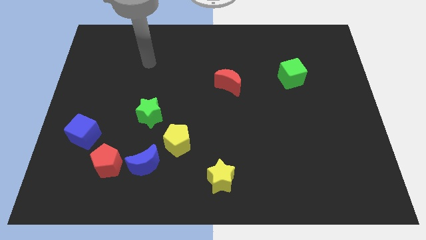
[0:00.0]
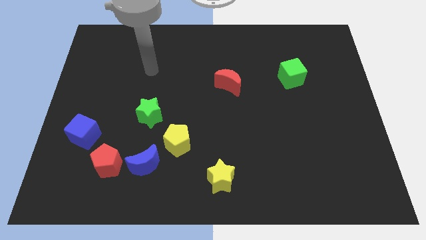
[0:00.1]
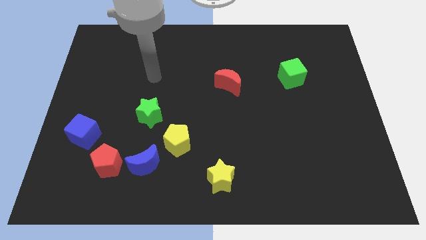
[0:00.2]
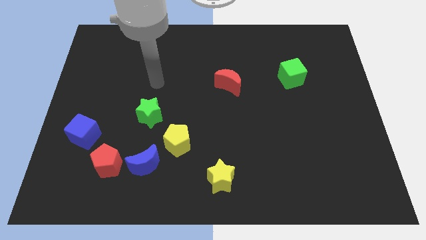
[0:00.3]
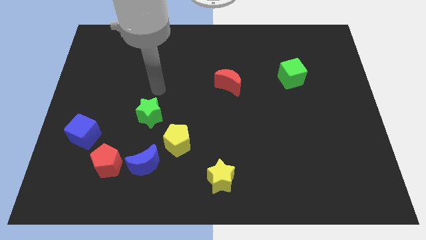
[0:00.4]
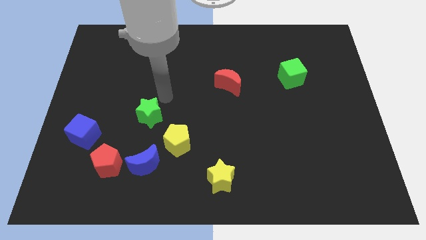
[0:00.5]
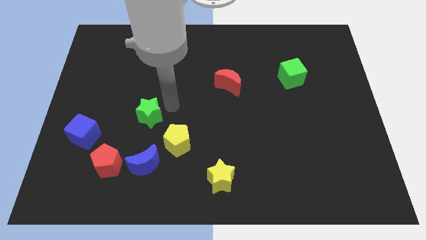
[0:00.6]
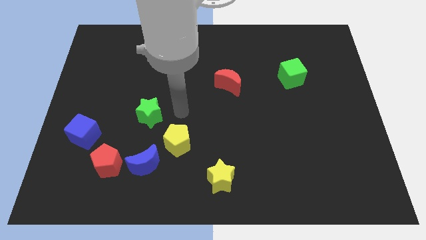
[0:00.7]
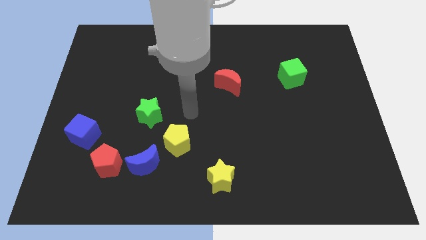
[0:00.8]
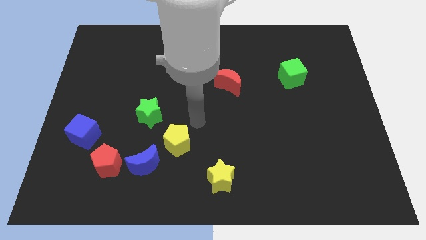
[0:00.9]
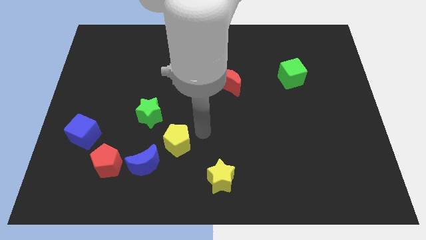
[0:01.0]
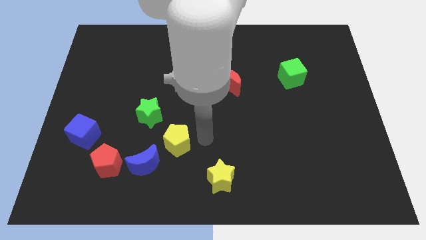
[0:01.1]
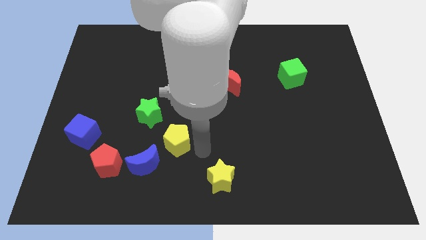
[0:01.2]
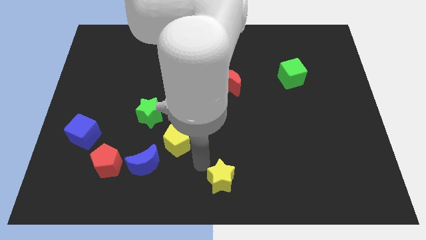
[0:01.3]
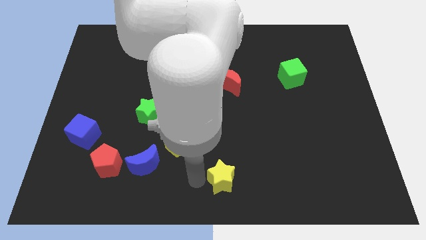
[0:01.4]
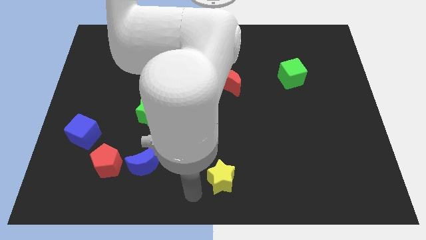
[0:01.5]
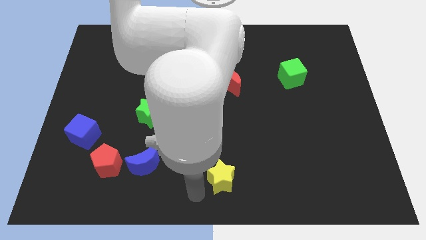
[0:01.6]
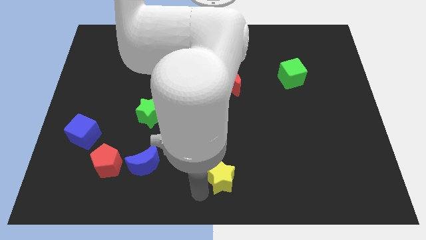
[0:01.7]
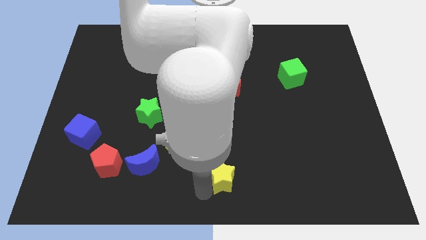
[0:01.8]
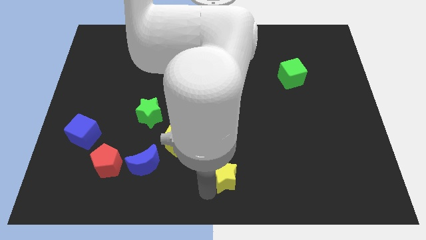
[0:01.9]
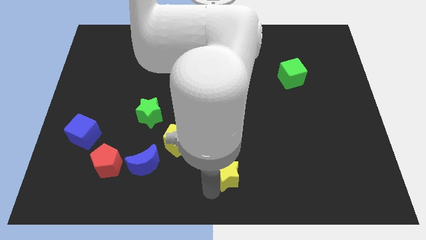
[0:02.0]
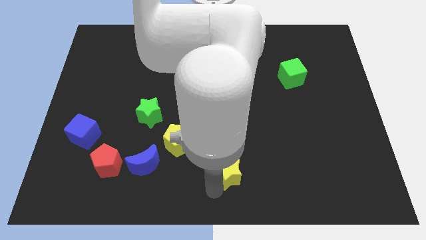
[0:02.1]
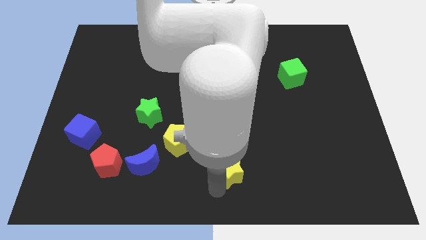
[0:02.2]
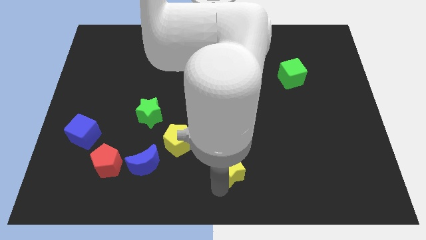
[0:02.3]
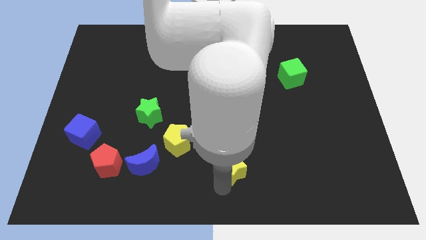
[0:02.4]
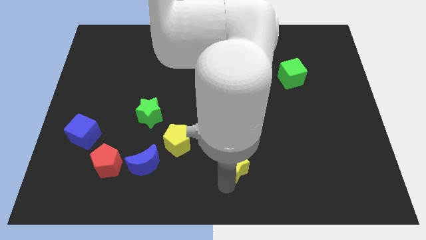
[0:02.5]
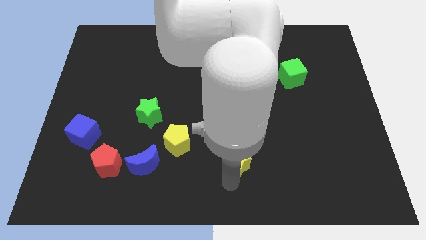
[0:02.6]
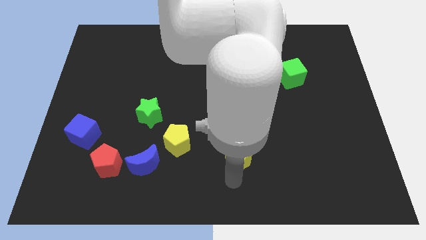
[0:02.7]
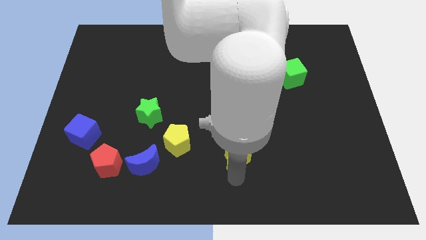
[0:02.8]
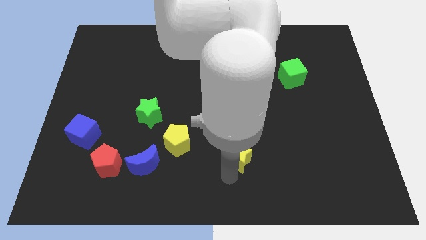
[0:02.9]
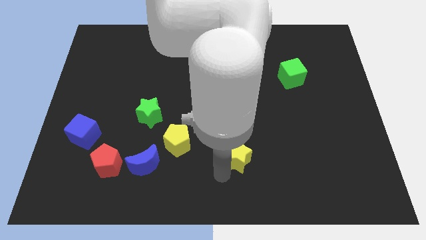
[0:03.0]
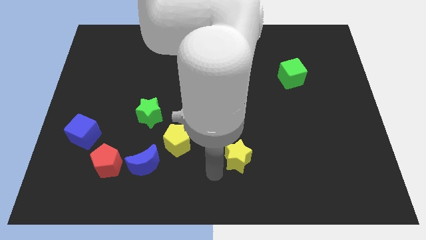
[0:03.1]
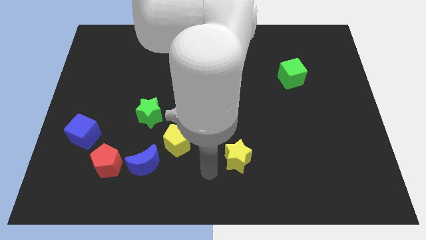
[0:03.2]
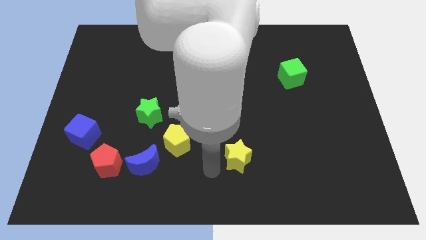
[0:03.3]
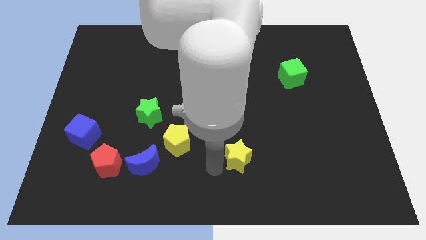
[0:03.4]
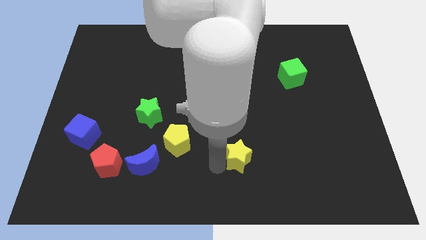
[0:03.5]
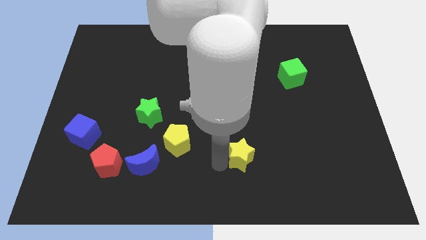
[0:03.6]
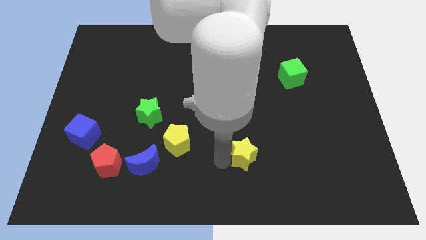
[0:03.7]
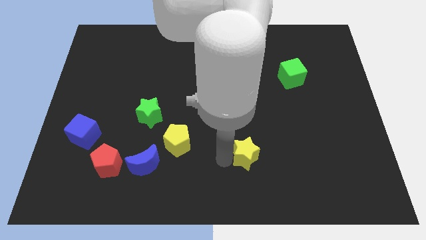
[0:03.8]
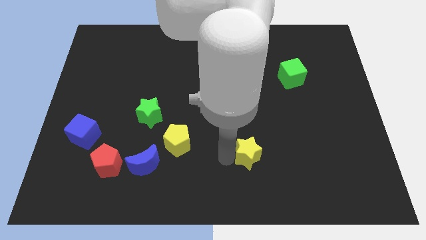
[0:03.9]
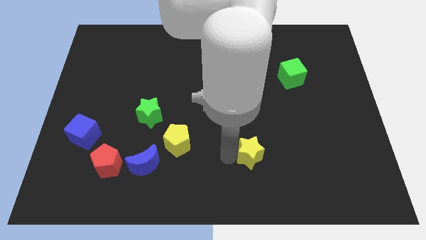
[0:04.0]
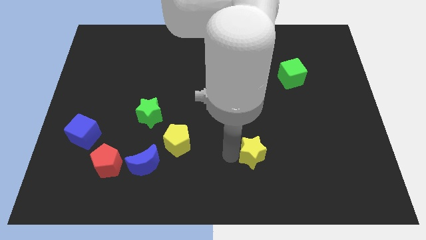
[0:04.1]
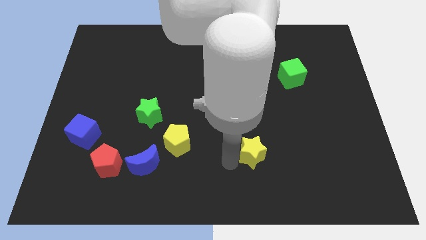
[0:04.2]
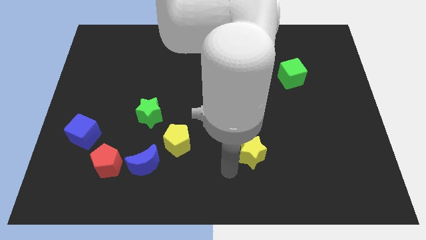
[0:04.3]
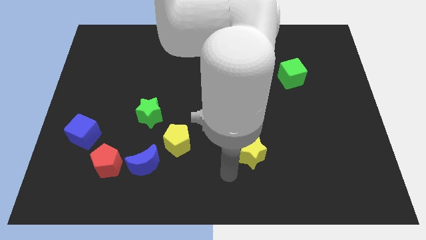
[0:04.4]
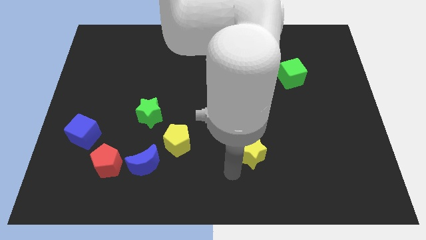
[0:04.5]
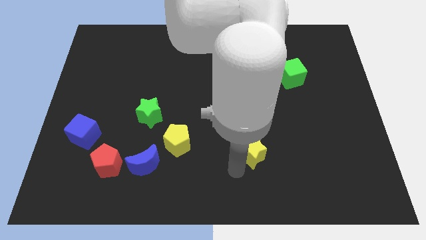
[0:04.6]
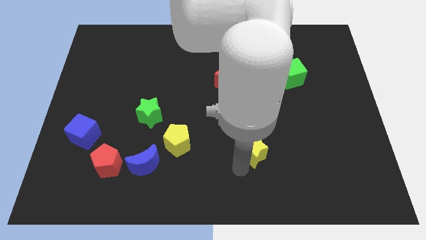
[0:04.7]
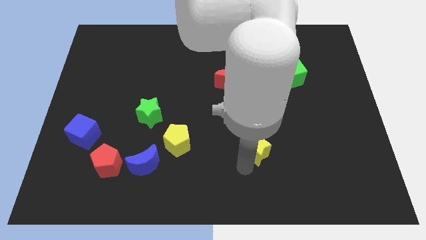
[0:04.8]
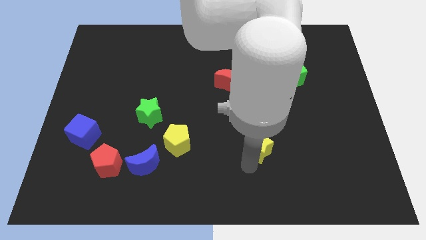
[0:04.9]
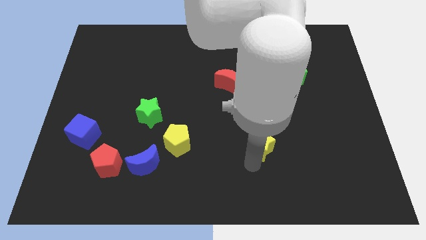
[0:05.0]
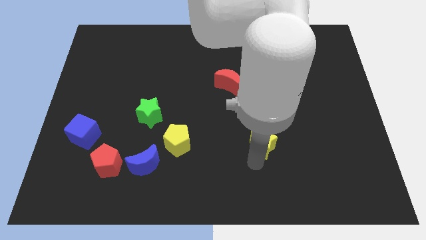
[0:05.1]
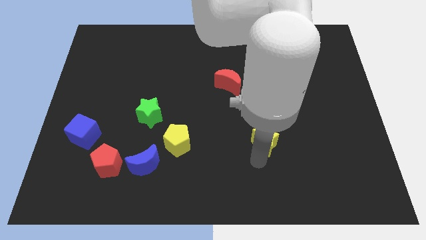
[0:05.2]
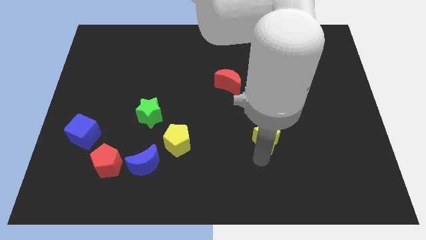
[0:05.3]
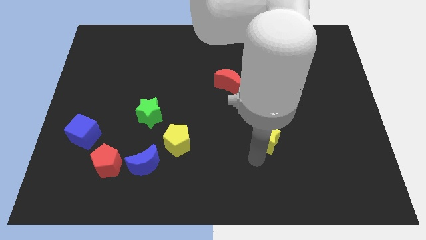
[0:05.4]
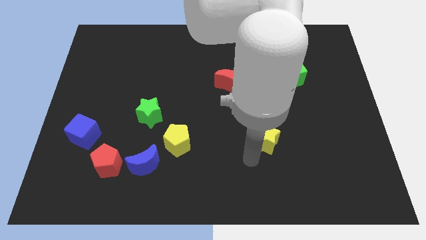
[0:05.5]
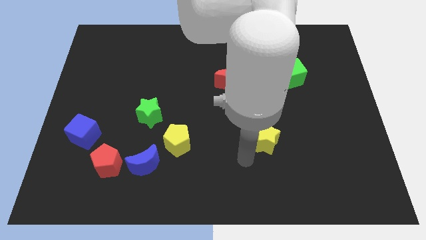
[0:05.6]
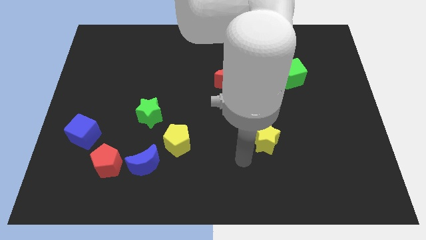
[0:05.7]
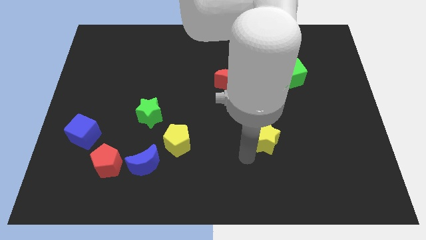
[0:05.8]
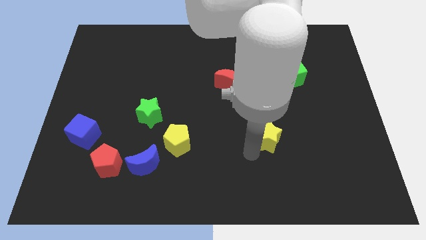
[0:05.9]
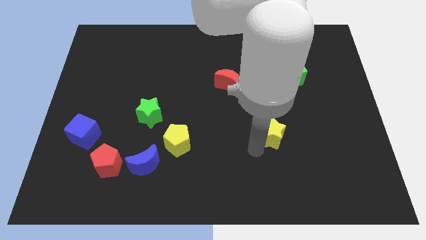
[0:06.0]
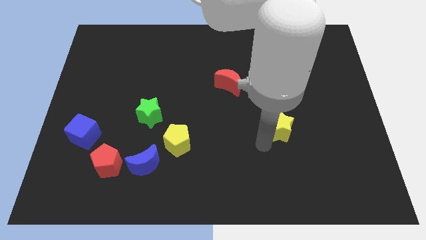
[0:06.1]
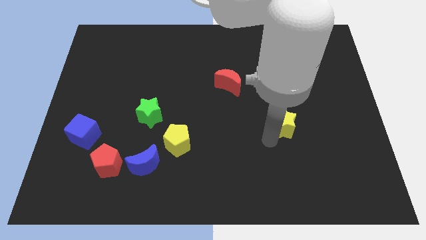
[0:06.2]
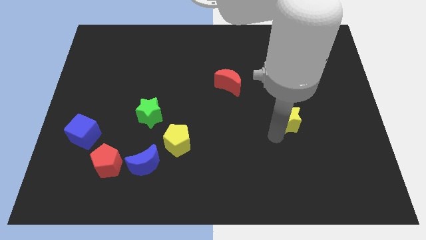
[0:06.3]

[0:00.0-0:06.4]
push the yellow star diagonally up and to the right

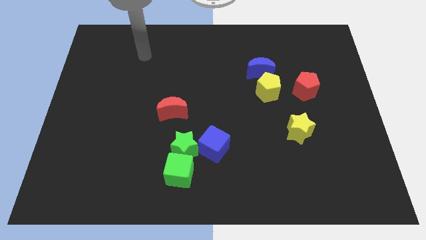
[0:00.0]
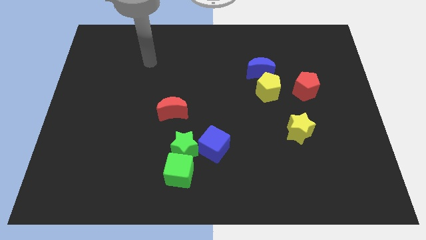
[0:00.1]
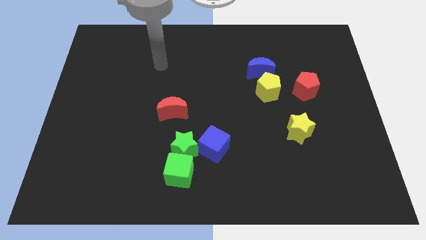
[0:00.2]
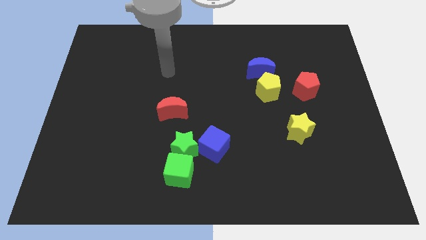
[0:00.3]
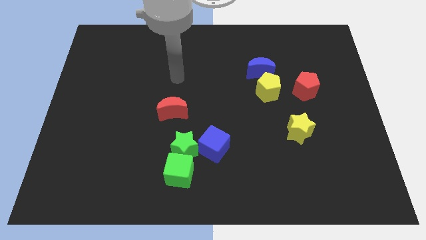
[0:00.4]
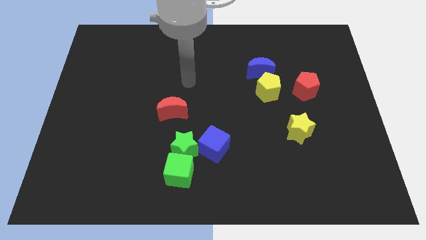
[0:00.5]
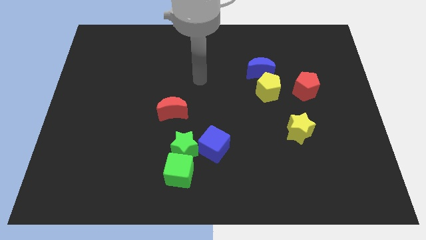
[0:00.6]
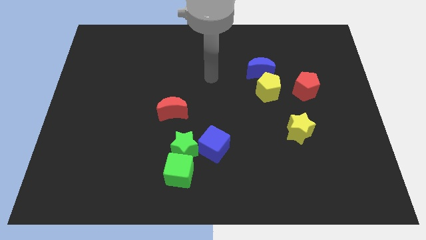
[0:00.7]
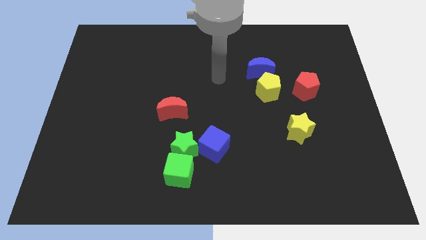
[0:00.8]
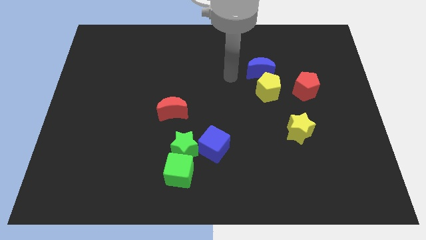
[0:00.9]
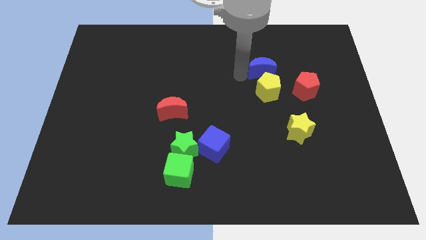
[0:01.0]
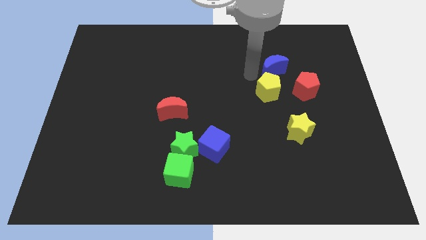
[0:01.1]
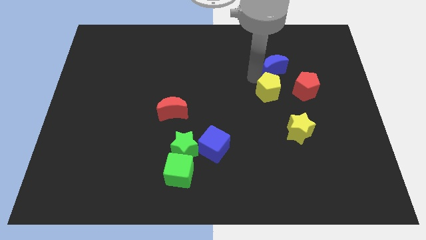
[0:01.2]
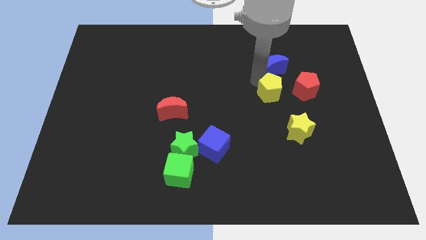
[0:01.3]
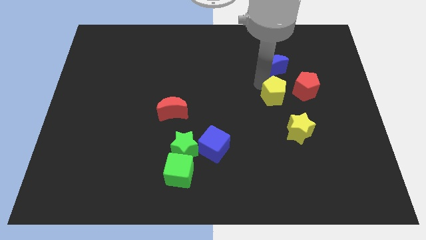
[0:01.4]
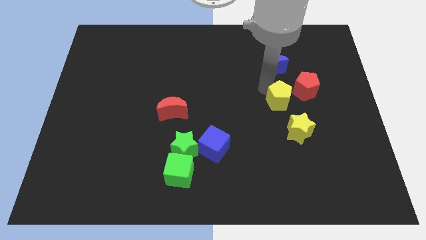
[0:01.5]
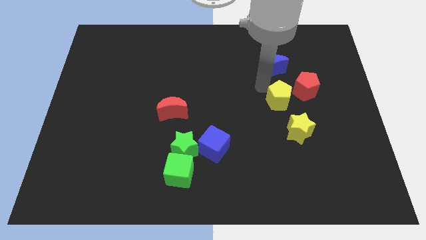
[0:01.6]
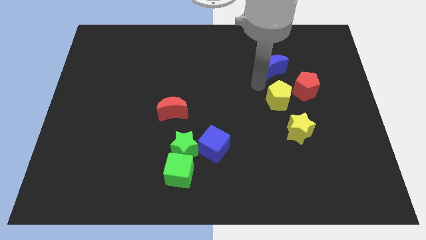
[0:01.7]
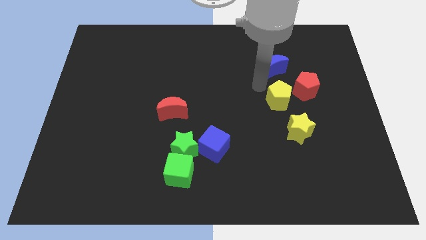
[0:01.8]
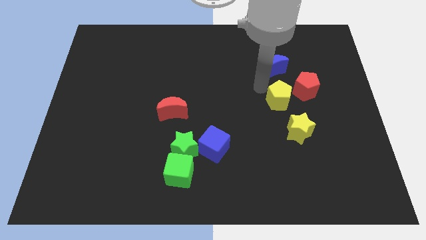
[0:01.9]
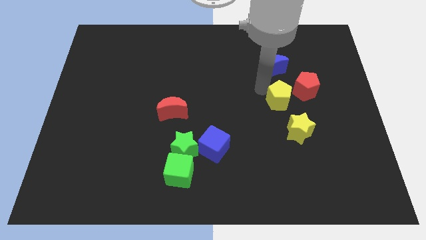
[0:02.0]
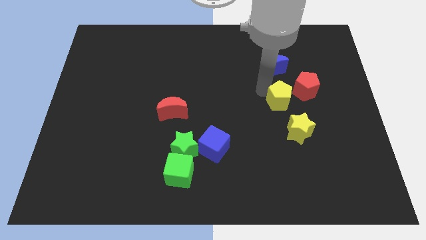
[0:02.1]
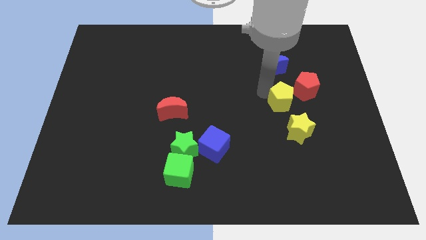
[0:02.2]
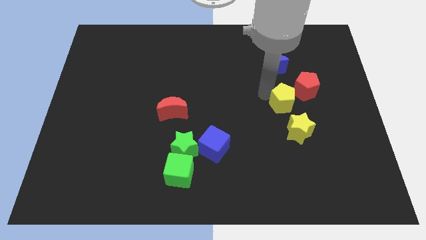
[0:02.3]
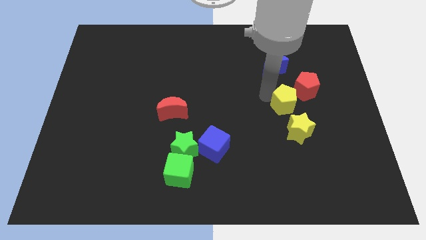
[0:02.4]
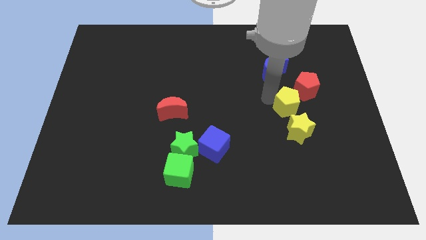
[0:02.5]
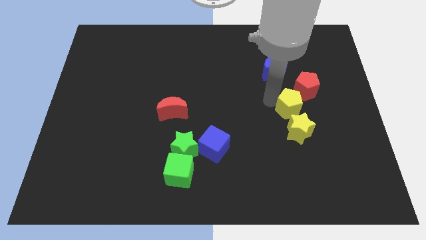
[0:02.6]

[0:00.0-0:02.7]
move the yellow pentagon a little down and to the right diagonally
